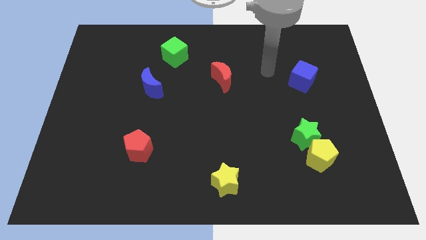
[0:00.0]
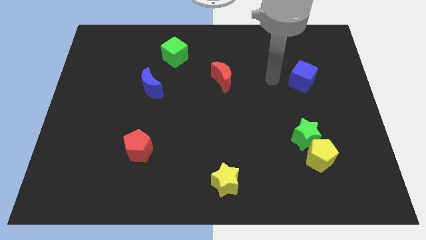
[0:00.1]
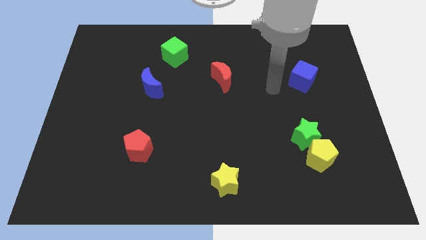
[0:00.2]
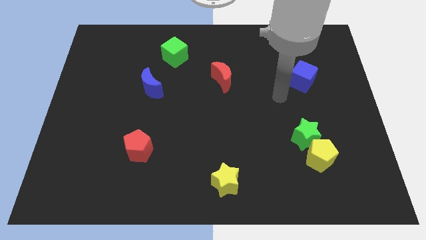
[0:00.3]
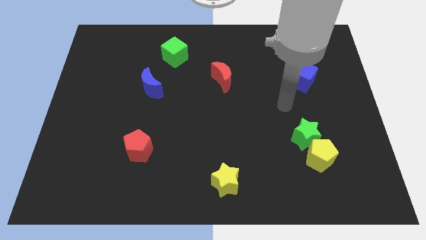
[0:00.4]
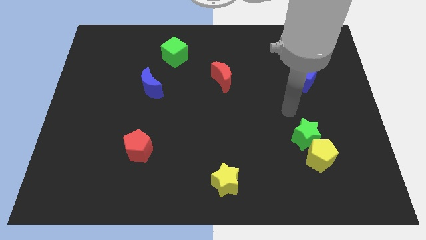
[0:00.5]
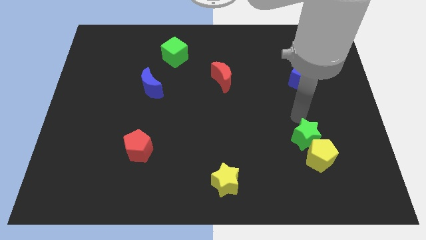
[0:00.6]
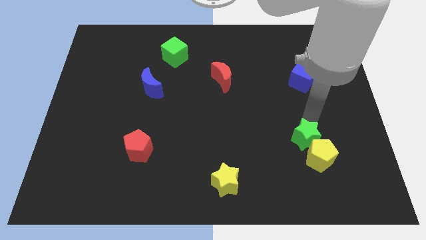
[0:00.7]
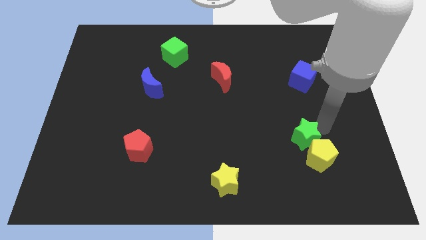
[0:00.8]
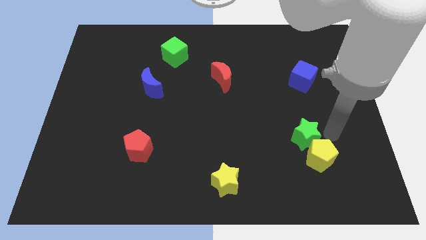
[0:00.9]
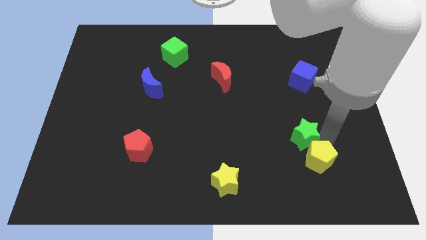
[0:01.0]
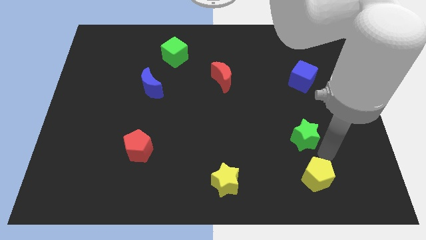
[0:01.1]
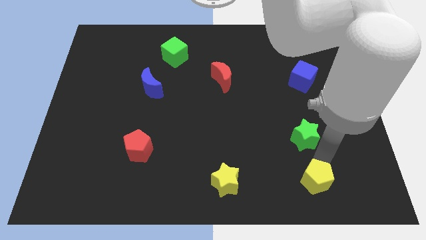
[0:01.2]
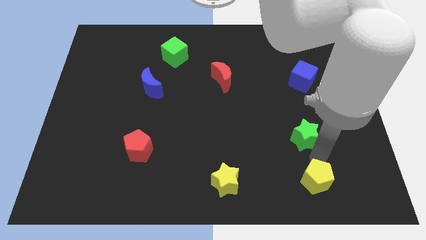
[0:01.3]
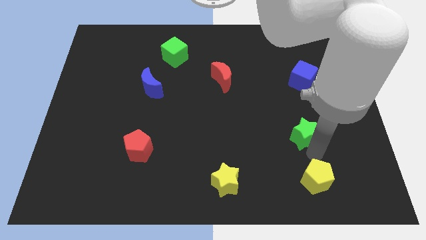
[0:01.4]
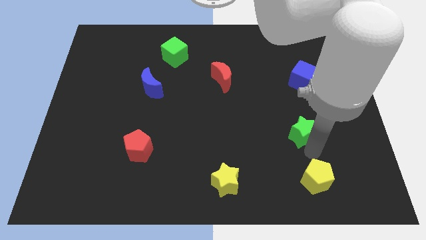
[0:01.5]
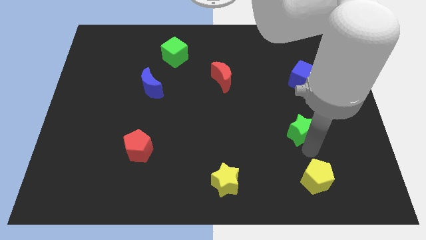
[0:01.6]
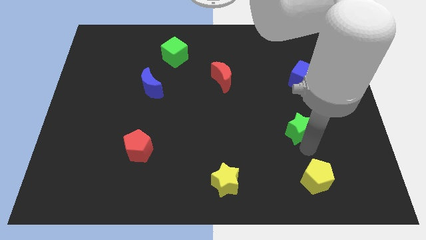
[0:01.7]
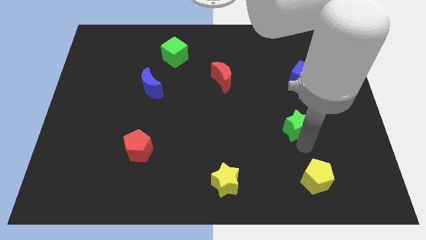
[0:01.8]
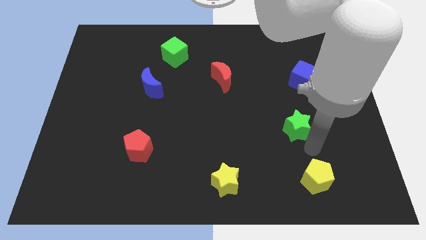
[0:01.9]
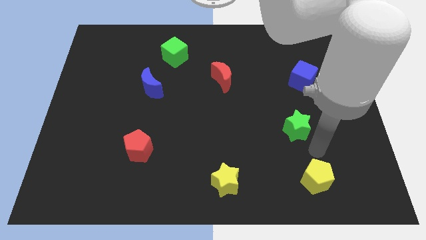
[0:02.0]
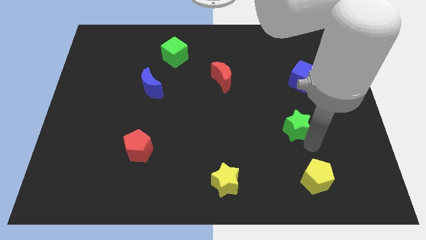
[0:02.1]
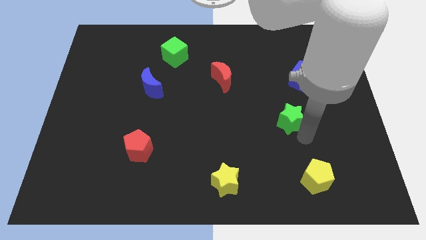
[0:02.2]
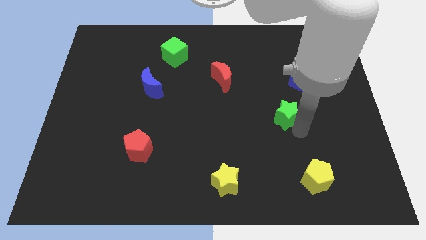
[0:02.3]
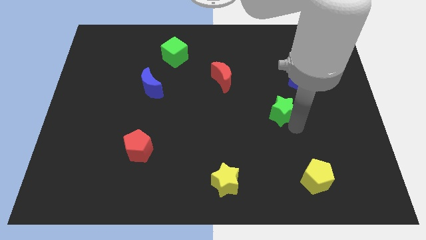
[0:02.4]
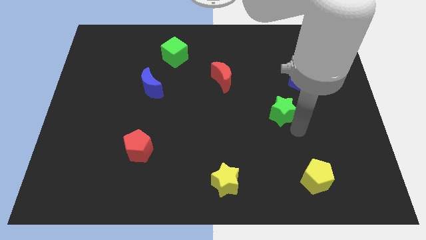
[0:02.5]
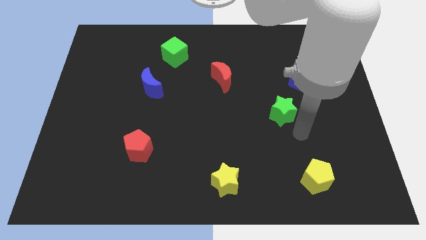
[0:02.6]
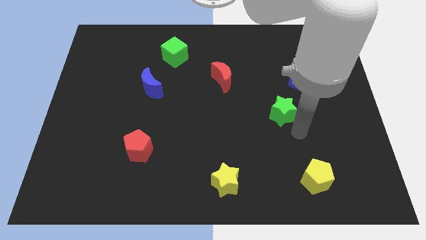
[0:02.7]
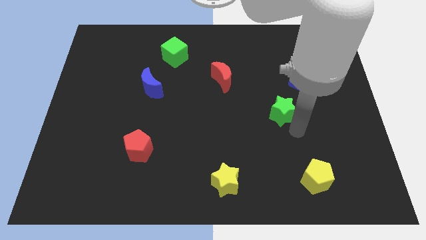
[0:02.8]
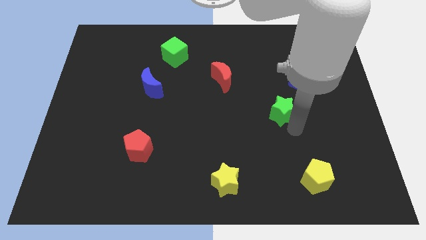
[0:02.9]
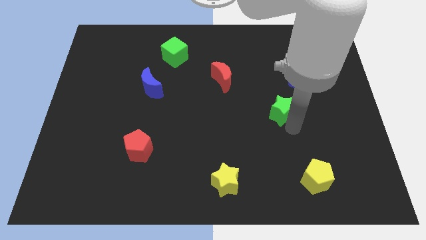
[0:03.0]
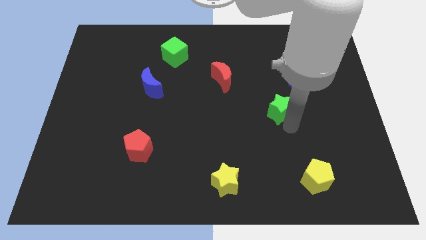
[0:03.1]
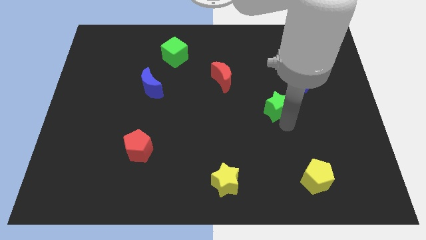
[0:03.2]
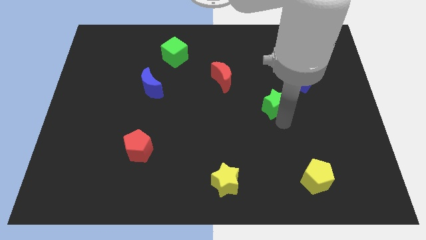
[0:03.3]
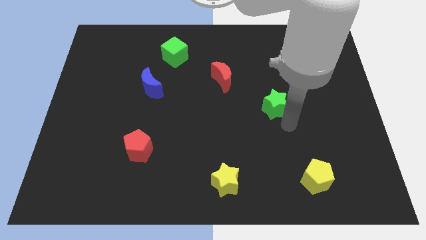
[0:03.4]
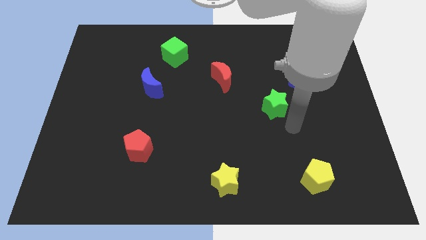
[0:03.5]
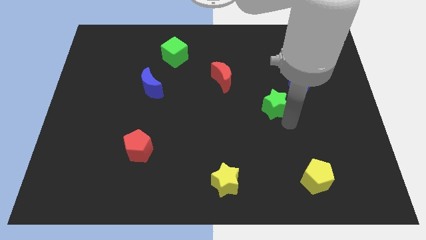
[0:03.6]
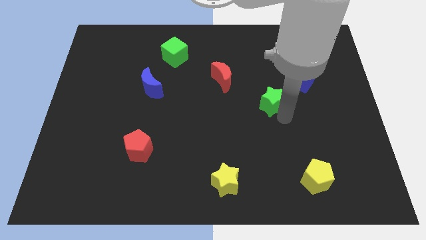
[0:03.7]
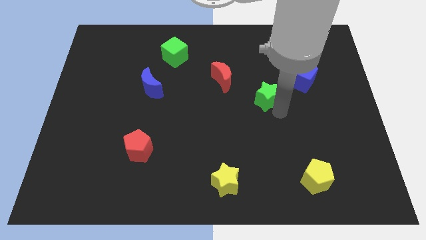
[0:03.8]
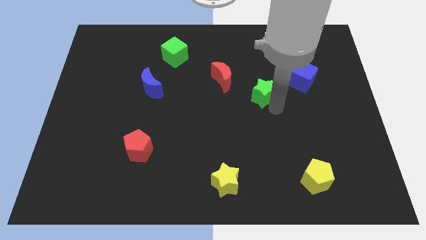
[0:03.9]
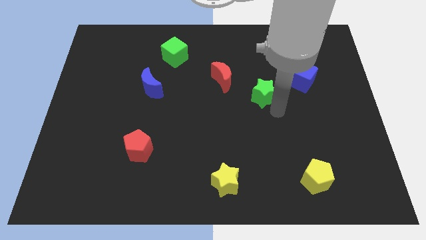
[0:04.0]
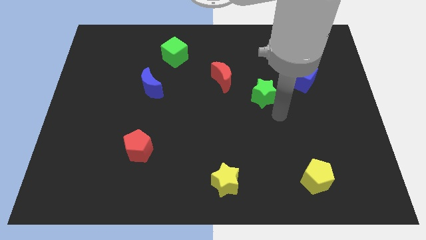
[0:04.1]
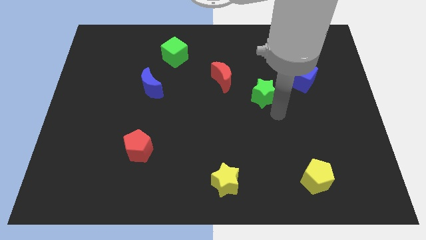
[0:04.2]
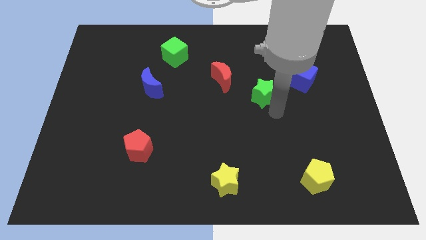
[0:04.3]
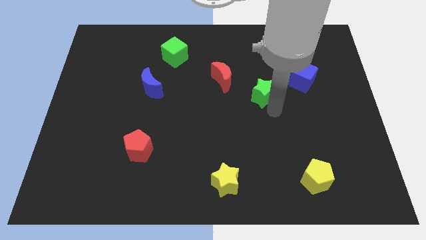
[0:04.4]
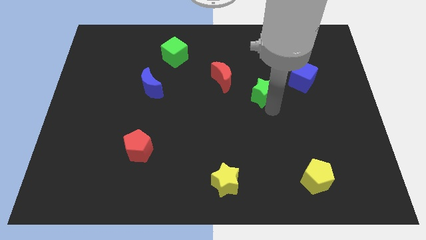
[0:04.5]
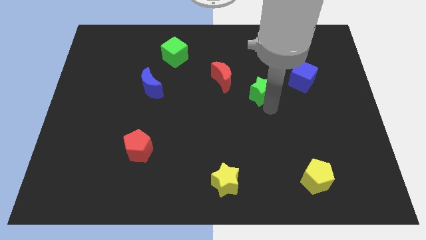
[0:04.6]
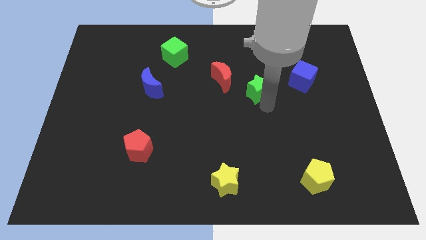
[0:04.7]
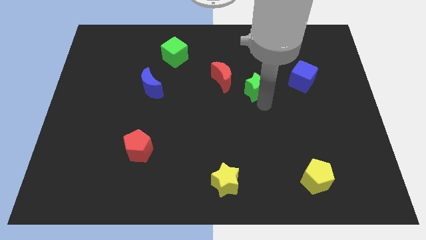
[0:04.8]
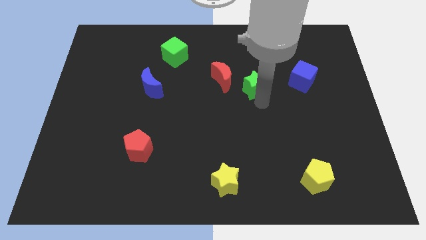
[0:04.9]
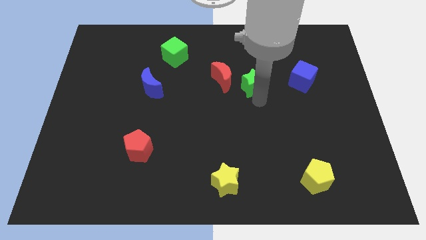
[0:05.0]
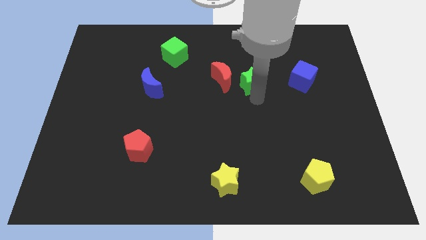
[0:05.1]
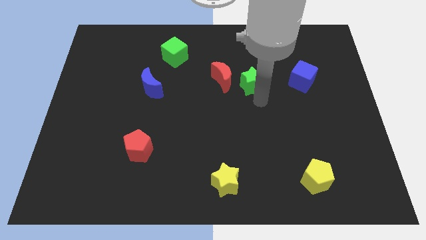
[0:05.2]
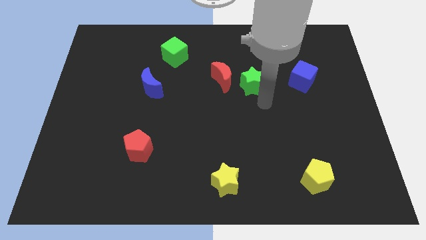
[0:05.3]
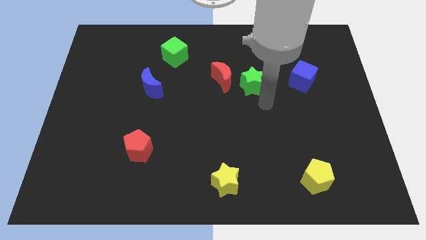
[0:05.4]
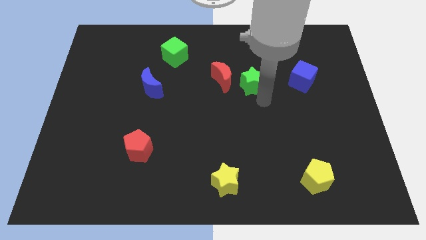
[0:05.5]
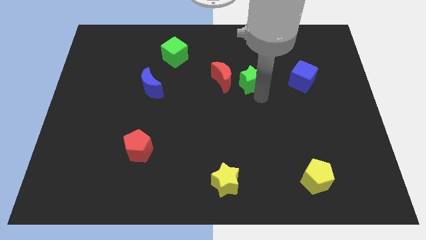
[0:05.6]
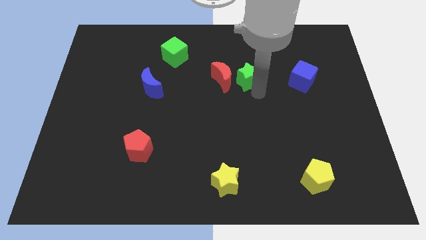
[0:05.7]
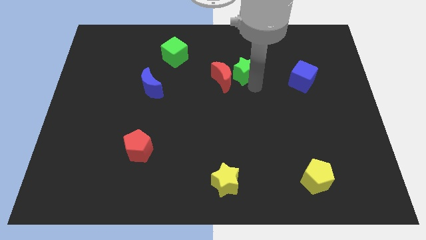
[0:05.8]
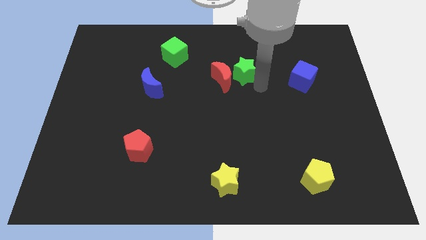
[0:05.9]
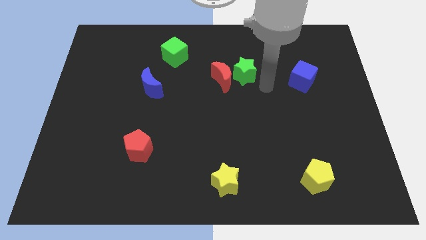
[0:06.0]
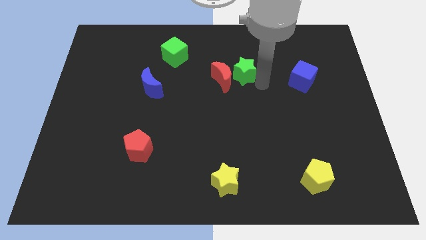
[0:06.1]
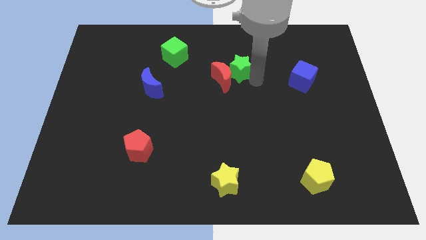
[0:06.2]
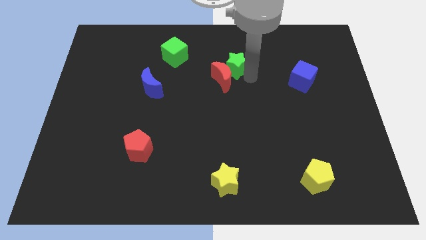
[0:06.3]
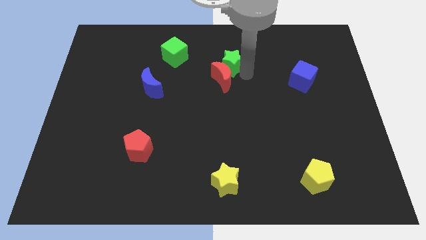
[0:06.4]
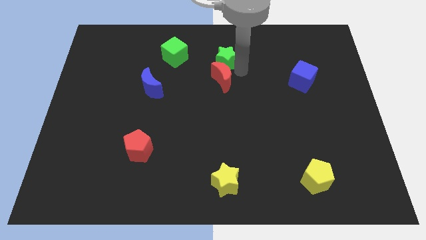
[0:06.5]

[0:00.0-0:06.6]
put the green star just right of the green cube
